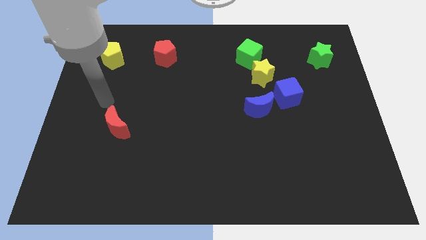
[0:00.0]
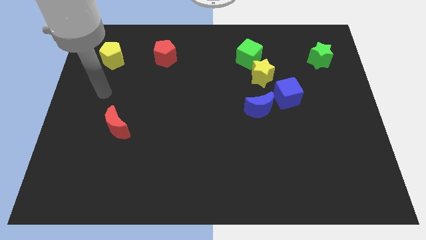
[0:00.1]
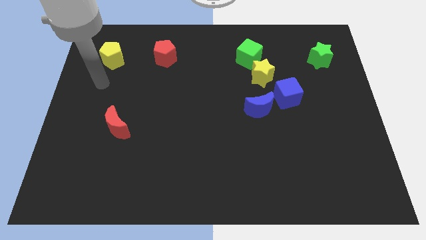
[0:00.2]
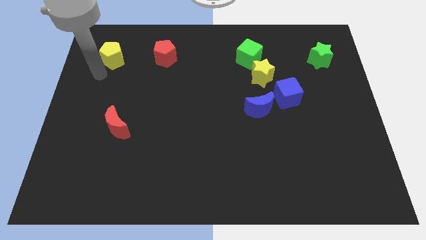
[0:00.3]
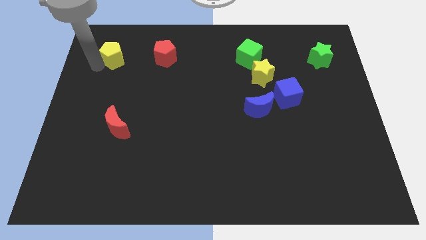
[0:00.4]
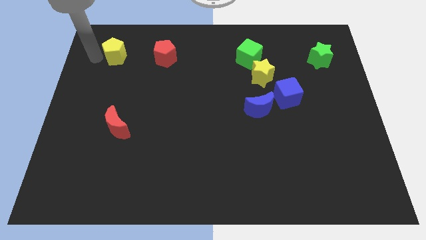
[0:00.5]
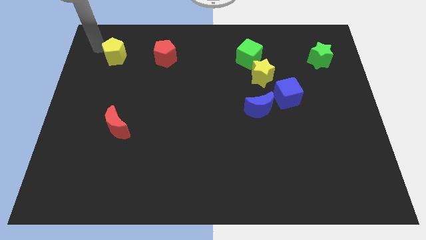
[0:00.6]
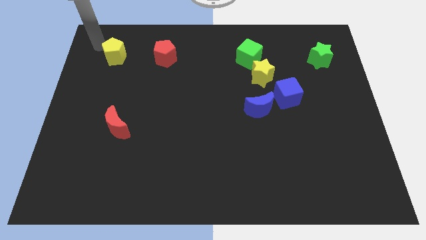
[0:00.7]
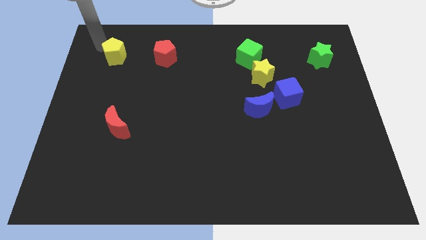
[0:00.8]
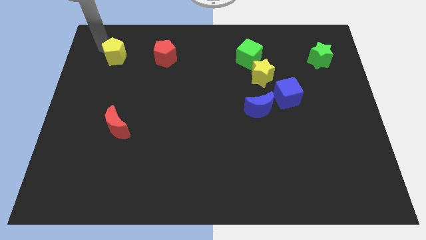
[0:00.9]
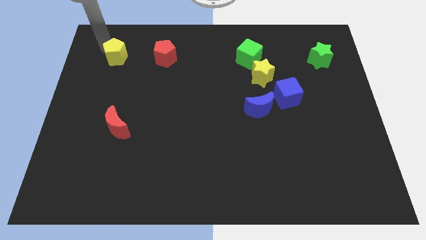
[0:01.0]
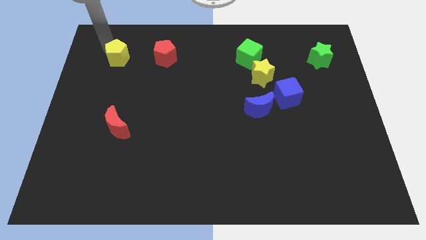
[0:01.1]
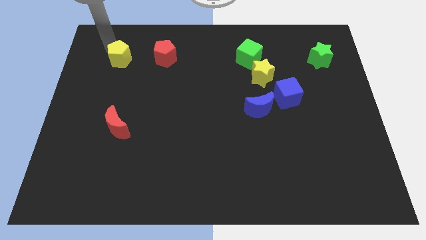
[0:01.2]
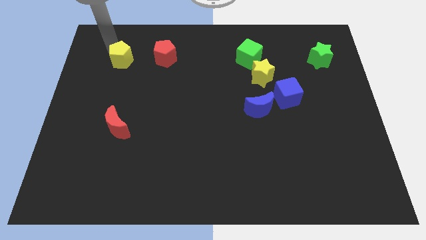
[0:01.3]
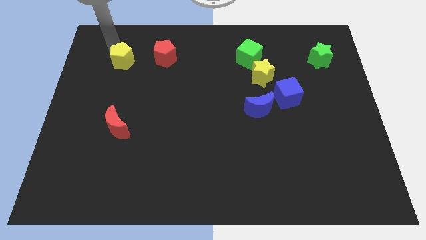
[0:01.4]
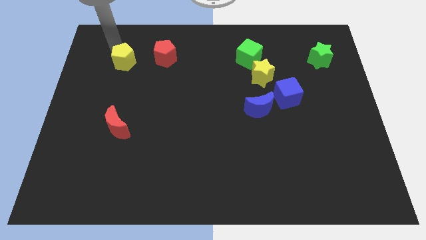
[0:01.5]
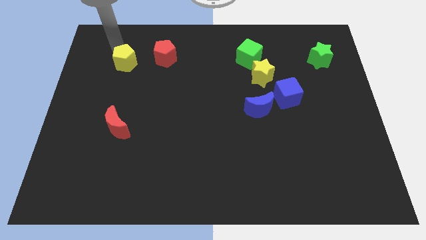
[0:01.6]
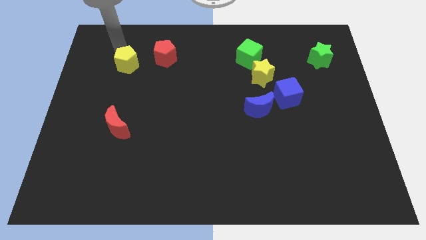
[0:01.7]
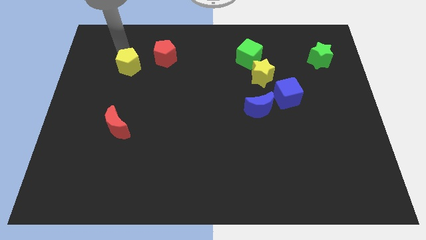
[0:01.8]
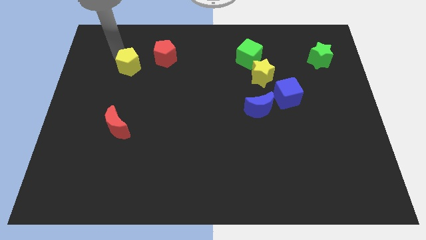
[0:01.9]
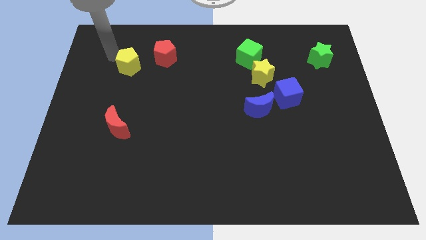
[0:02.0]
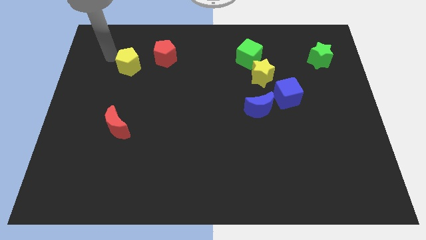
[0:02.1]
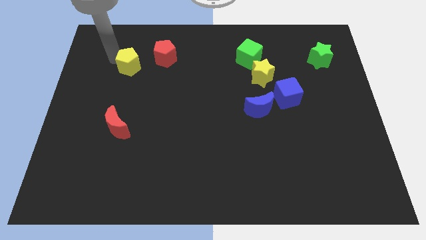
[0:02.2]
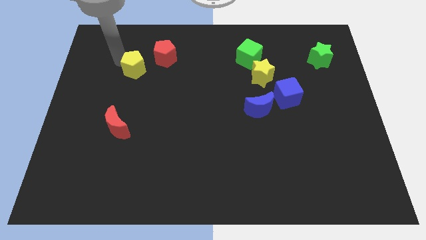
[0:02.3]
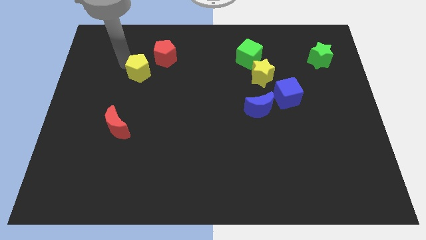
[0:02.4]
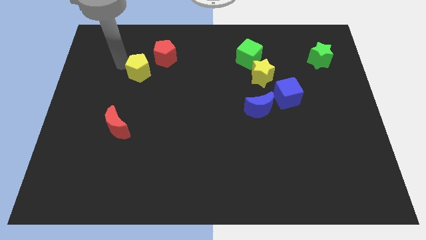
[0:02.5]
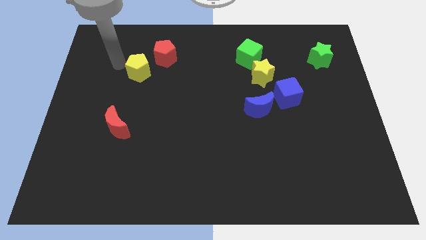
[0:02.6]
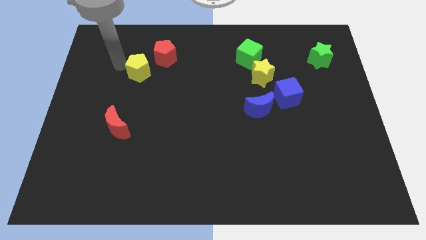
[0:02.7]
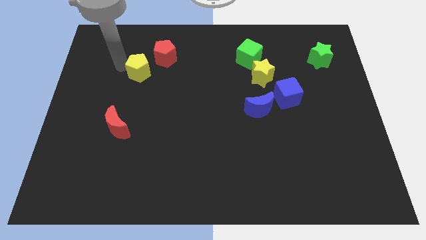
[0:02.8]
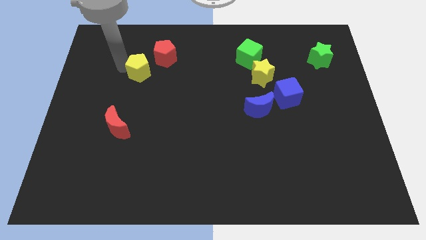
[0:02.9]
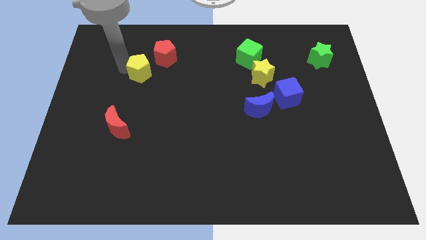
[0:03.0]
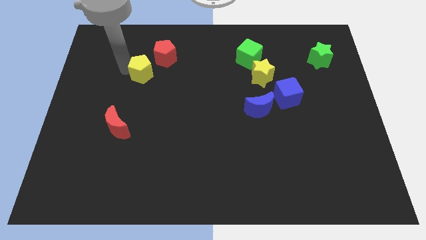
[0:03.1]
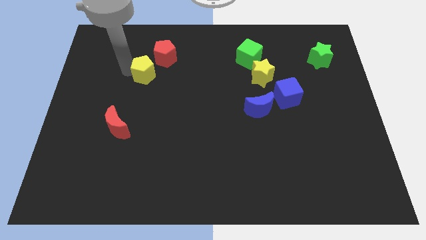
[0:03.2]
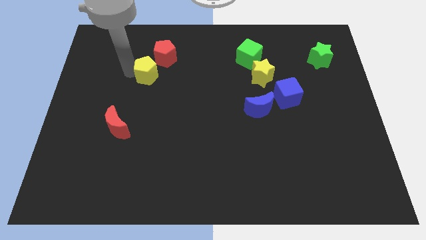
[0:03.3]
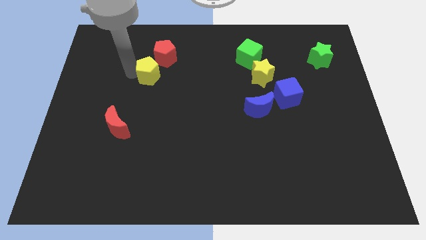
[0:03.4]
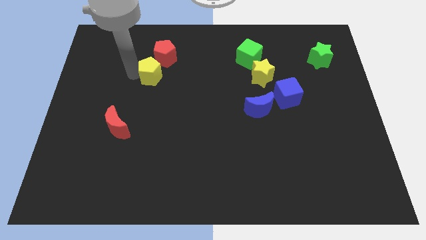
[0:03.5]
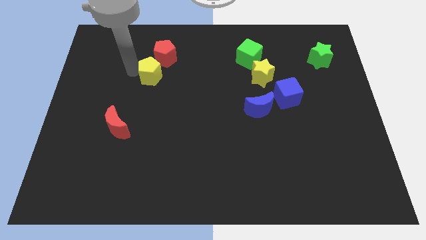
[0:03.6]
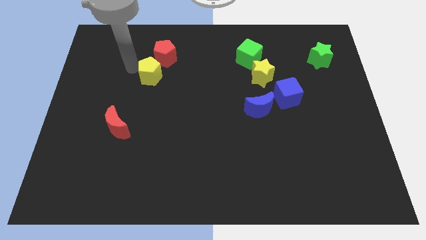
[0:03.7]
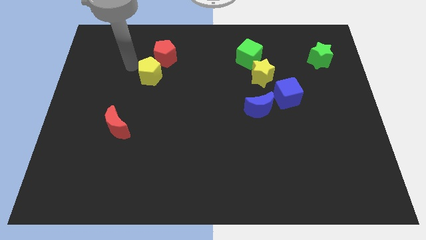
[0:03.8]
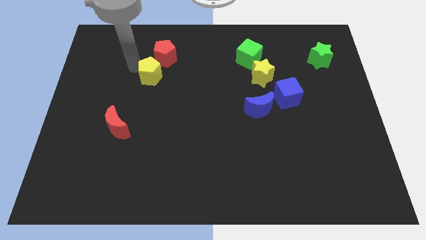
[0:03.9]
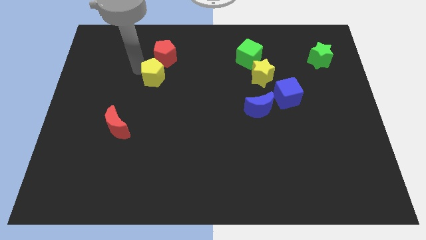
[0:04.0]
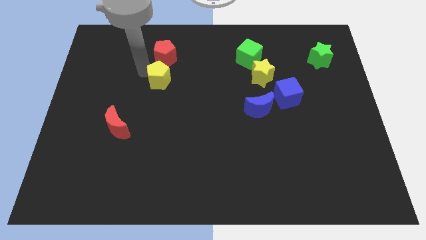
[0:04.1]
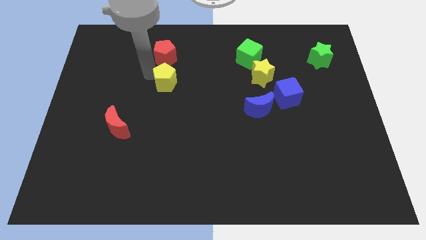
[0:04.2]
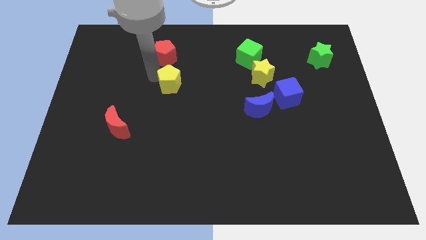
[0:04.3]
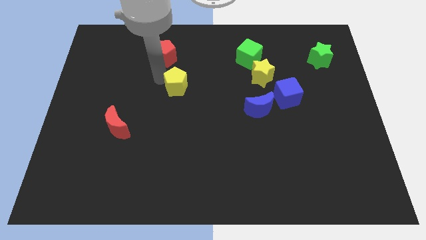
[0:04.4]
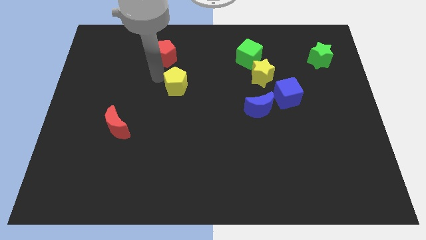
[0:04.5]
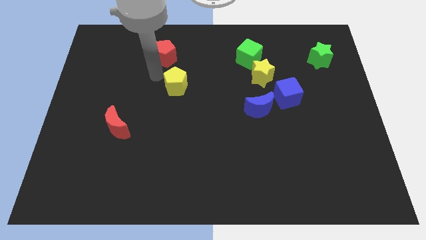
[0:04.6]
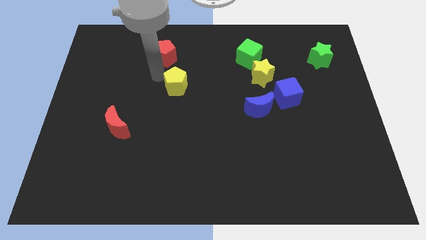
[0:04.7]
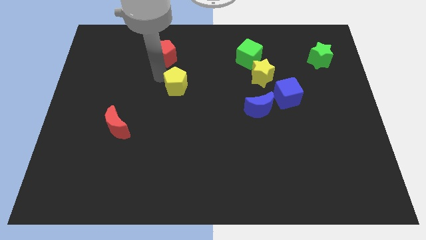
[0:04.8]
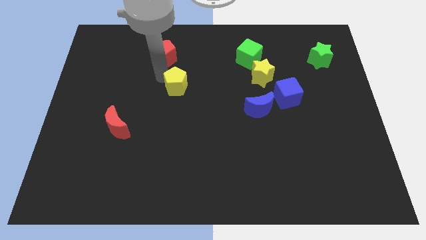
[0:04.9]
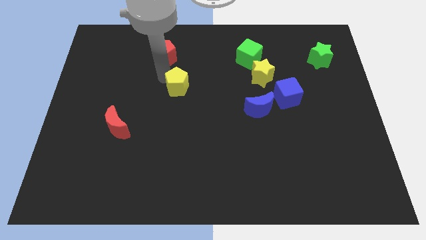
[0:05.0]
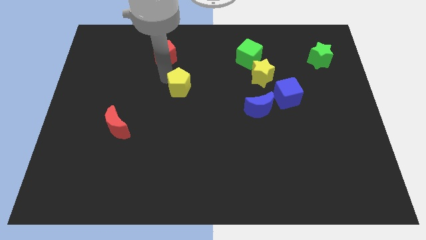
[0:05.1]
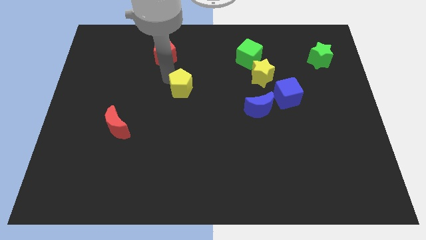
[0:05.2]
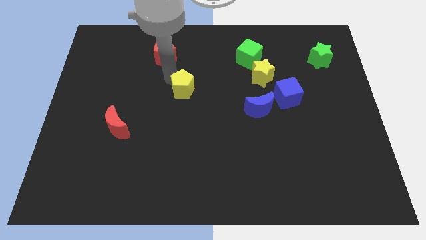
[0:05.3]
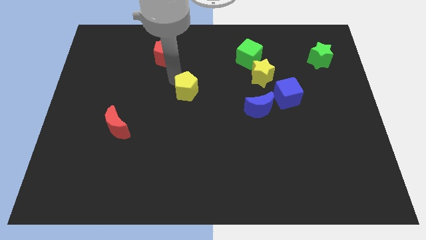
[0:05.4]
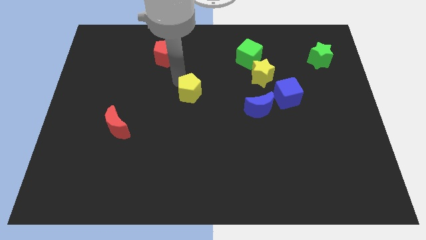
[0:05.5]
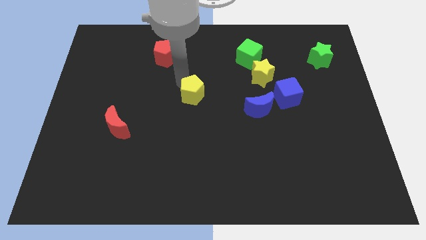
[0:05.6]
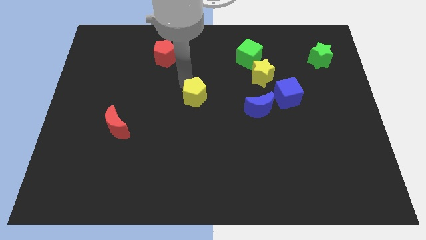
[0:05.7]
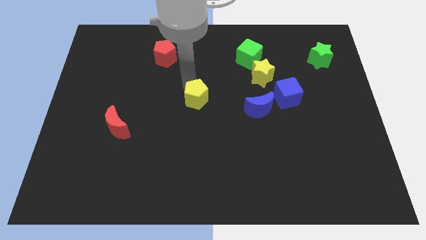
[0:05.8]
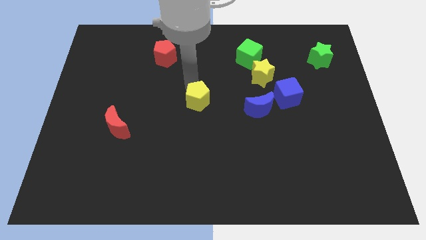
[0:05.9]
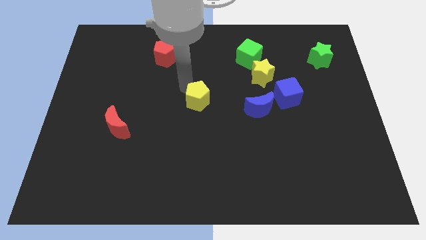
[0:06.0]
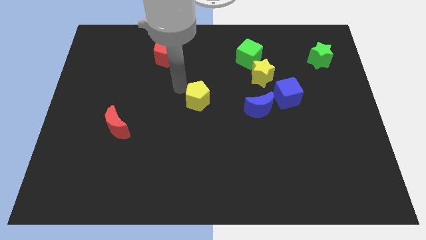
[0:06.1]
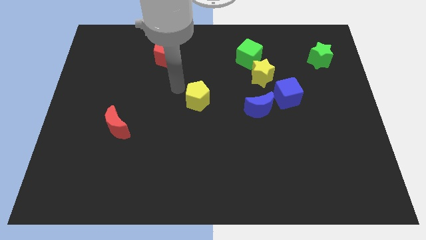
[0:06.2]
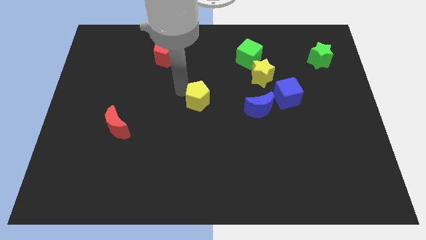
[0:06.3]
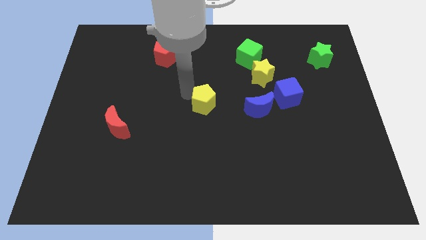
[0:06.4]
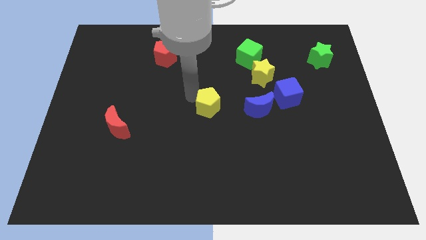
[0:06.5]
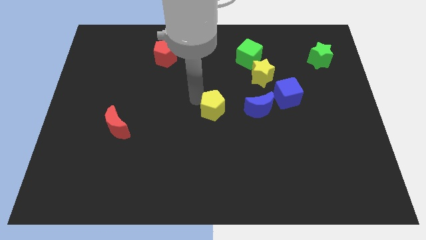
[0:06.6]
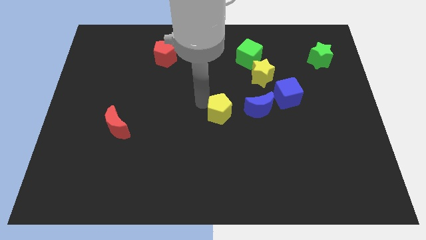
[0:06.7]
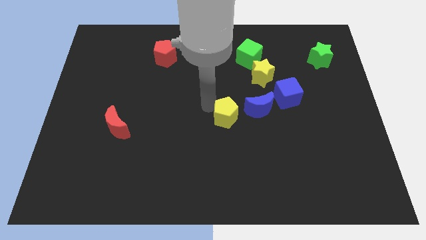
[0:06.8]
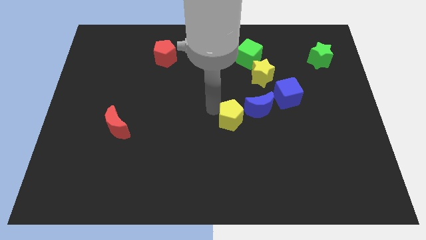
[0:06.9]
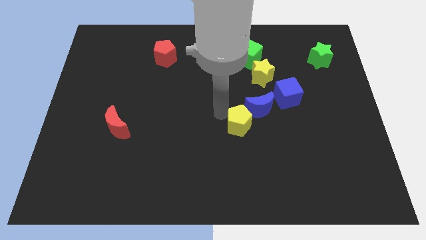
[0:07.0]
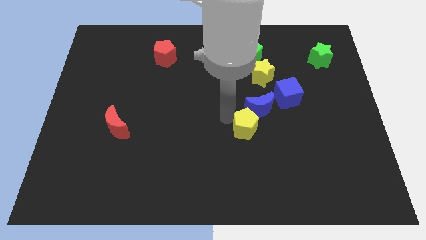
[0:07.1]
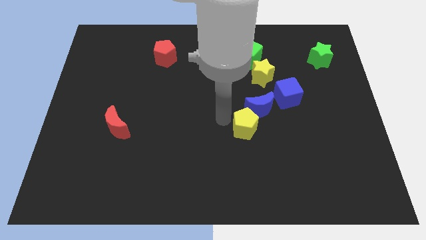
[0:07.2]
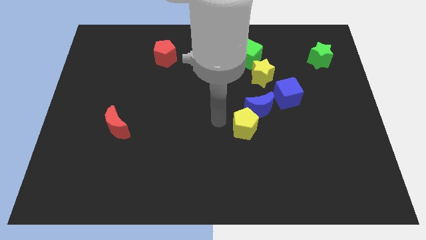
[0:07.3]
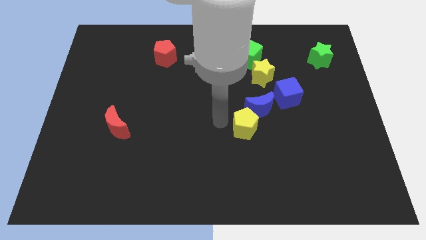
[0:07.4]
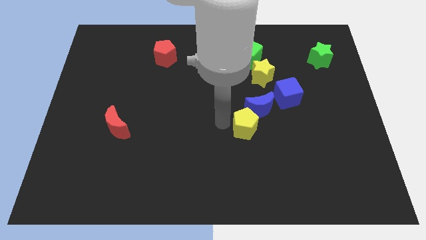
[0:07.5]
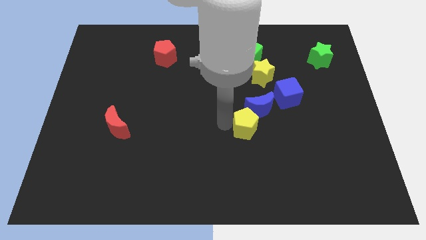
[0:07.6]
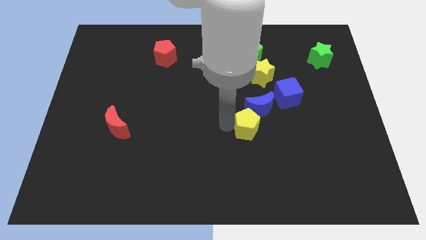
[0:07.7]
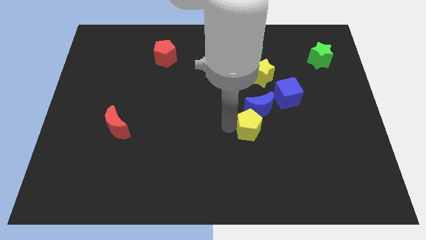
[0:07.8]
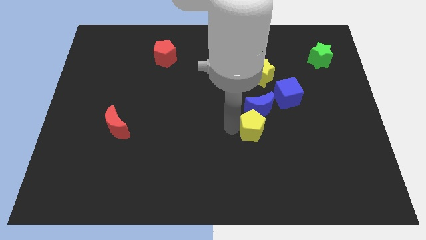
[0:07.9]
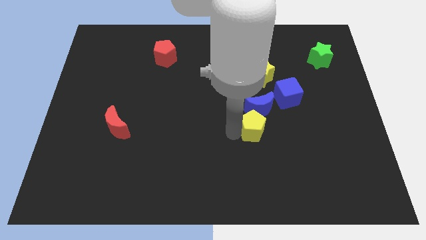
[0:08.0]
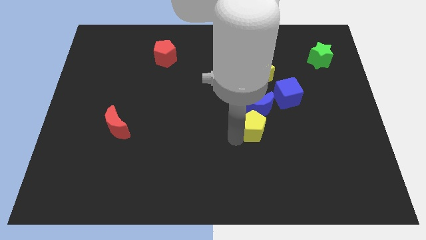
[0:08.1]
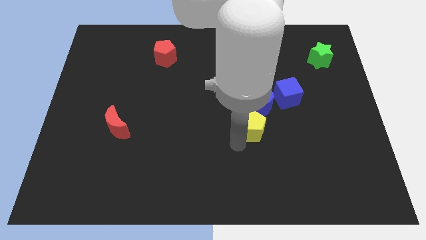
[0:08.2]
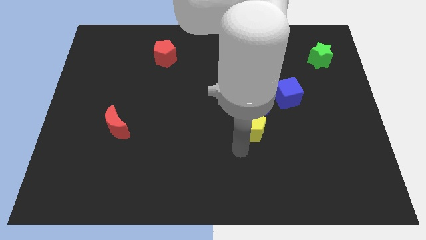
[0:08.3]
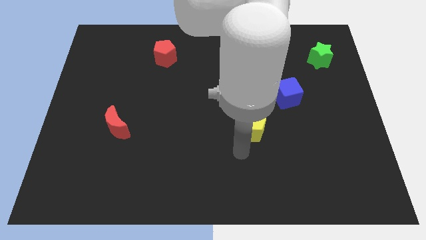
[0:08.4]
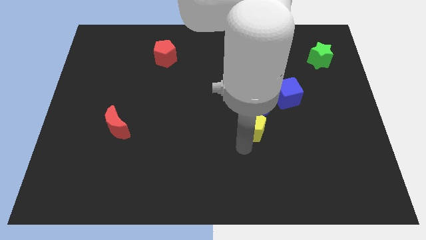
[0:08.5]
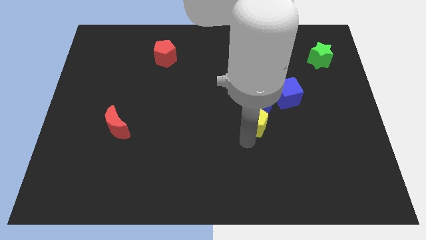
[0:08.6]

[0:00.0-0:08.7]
slide the yellow pentagon below the yellow star
